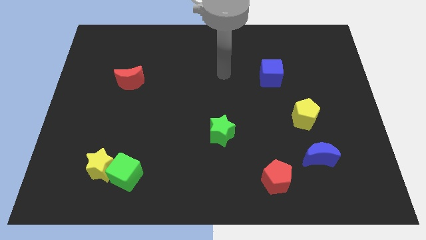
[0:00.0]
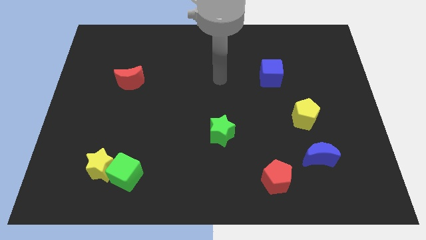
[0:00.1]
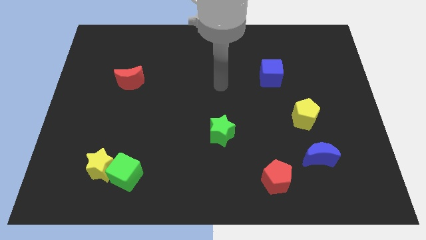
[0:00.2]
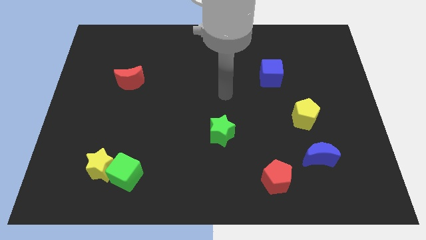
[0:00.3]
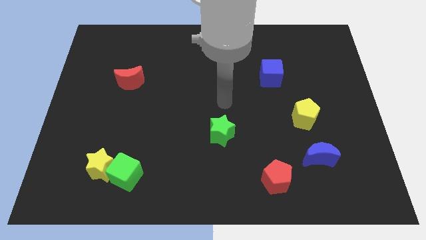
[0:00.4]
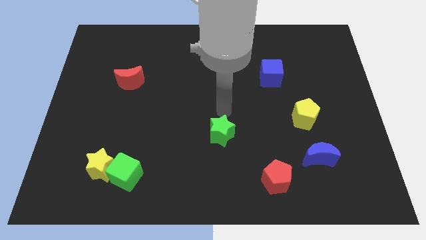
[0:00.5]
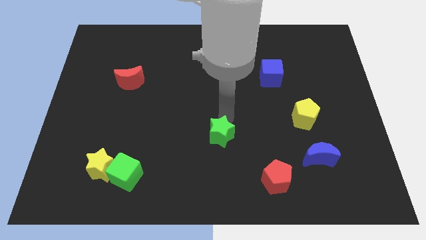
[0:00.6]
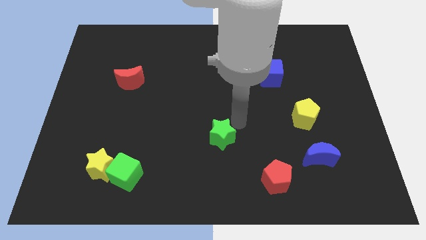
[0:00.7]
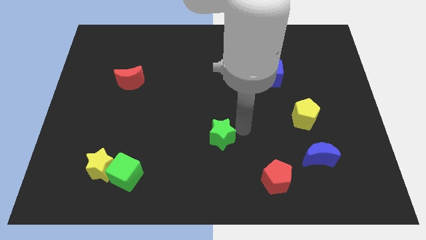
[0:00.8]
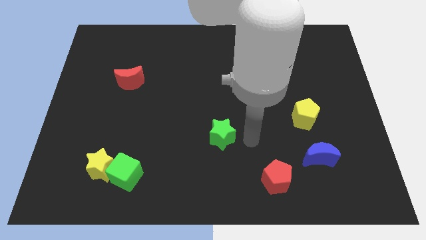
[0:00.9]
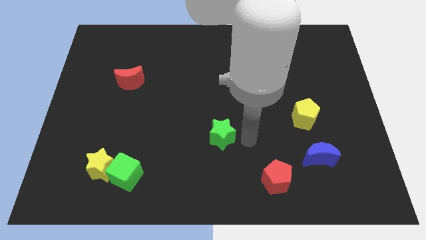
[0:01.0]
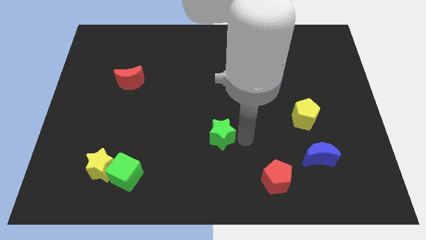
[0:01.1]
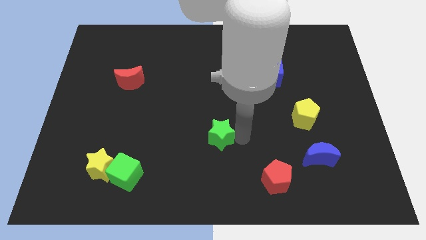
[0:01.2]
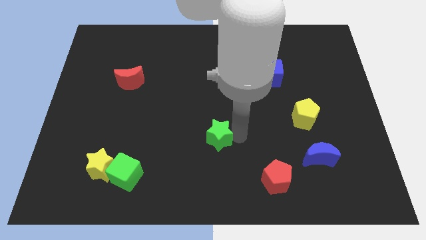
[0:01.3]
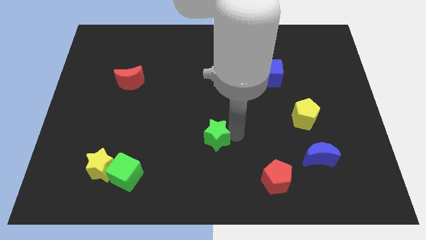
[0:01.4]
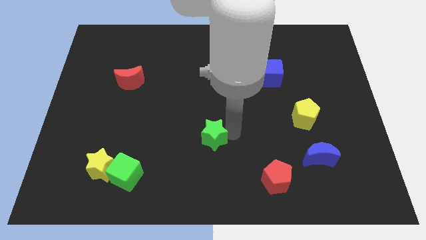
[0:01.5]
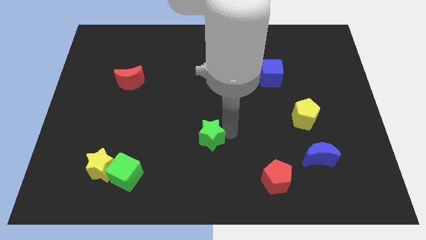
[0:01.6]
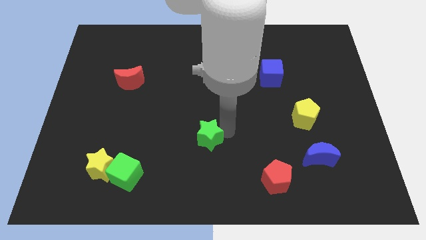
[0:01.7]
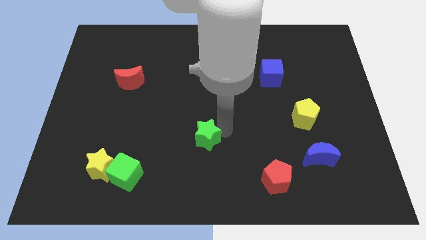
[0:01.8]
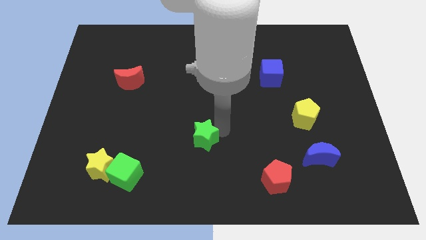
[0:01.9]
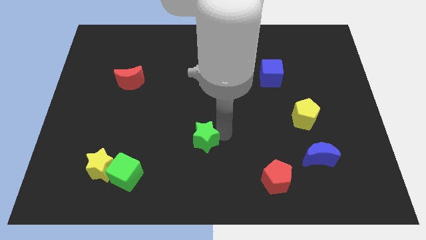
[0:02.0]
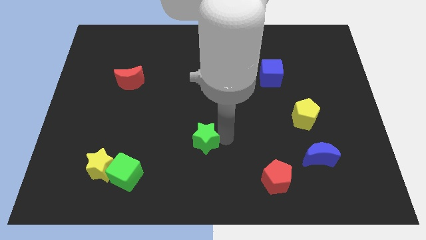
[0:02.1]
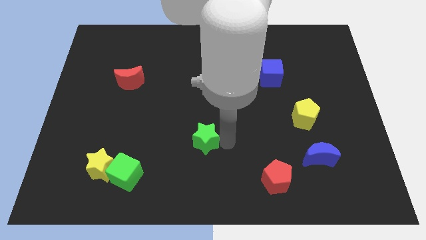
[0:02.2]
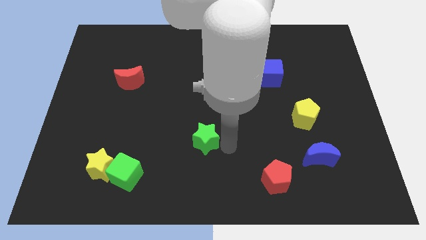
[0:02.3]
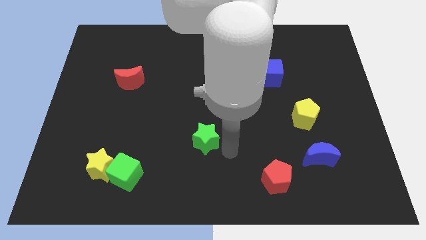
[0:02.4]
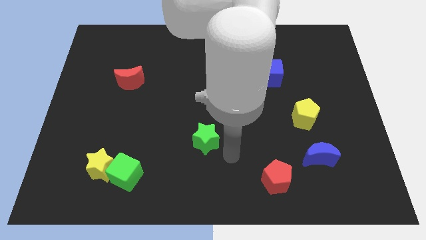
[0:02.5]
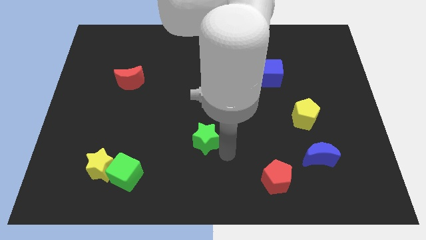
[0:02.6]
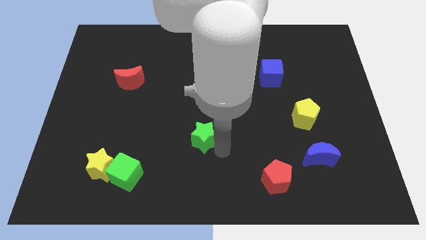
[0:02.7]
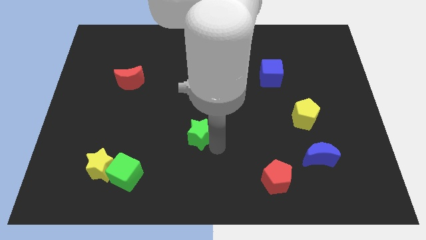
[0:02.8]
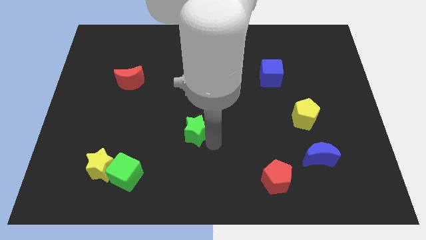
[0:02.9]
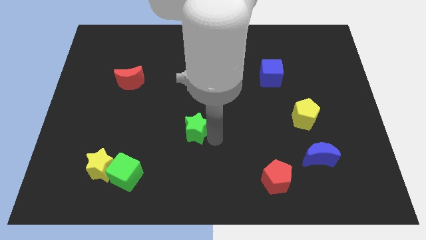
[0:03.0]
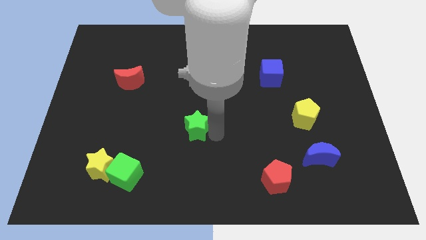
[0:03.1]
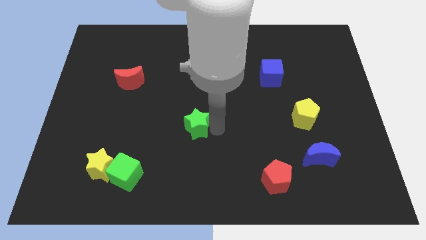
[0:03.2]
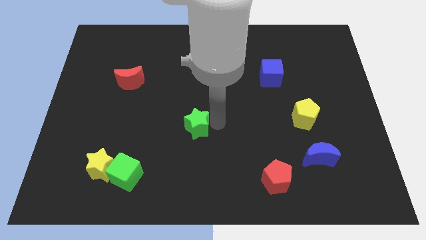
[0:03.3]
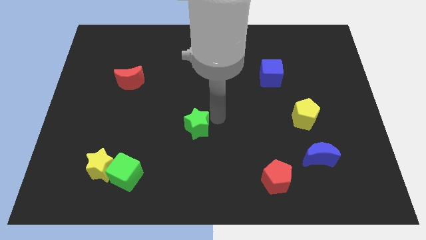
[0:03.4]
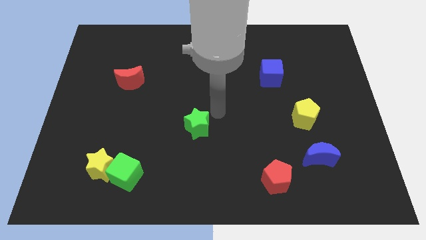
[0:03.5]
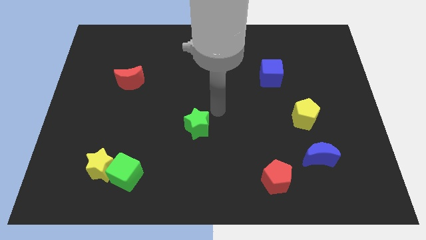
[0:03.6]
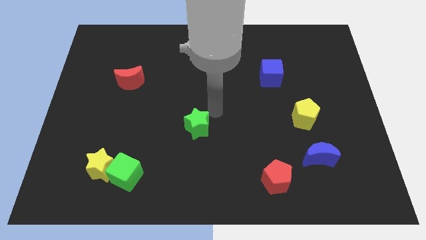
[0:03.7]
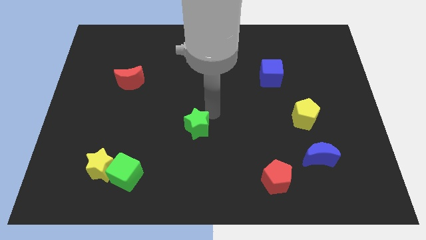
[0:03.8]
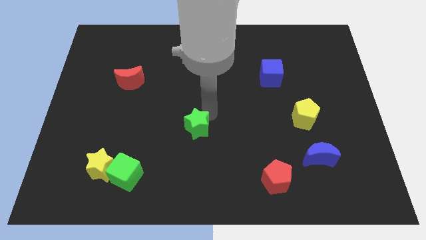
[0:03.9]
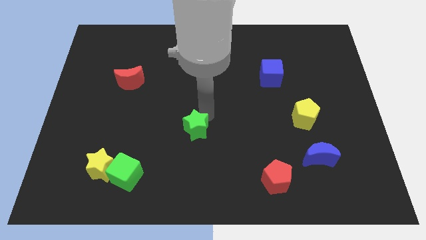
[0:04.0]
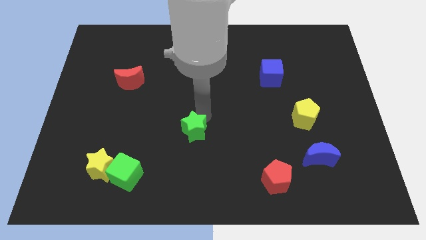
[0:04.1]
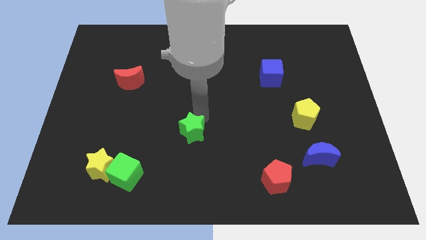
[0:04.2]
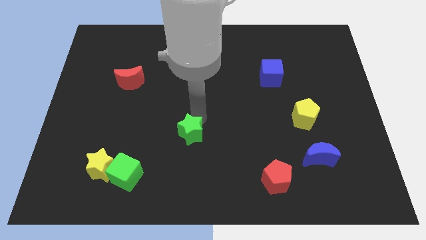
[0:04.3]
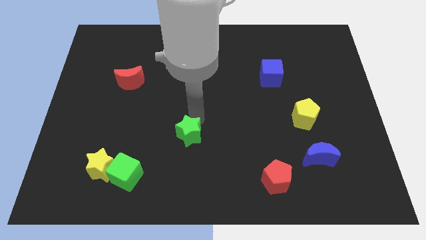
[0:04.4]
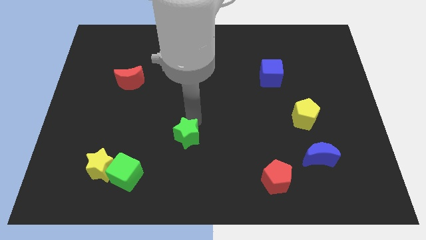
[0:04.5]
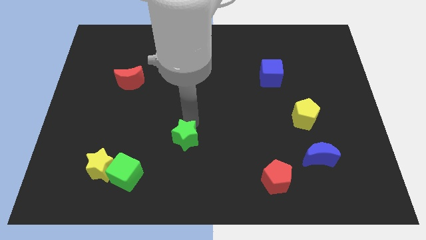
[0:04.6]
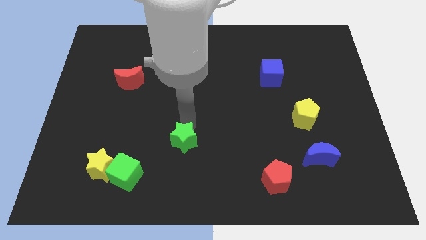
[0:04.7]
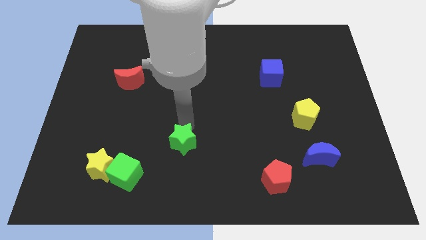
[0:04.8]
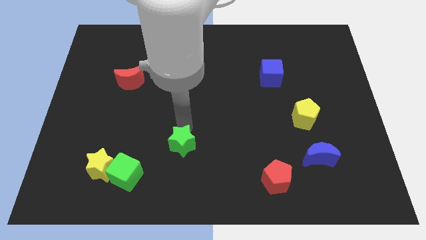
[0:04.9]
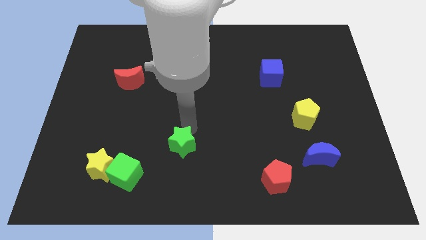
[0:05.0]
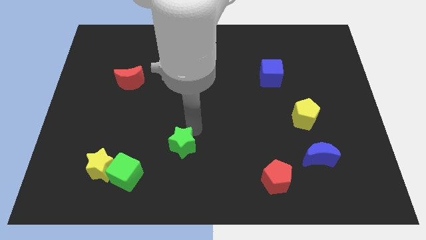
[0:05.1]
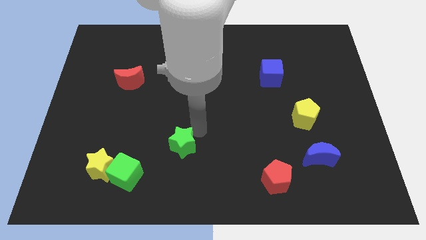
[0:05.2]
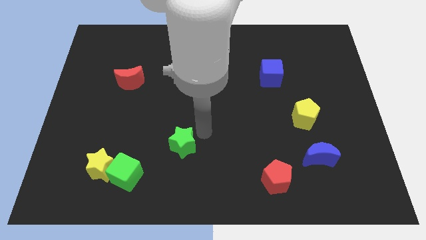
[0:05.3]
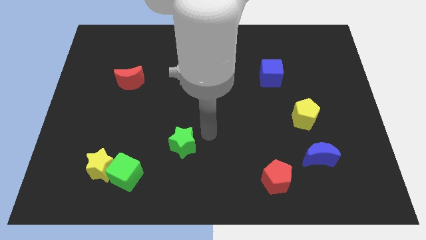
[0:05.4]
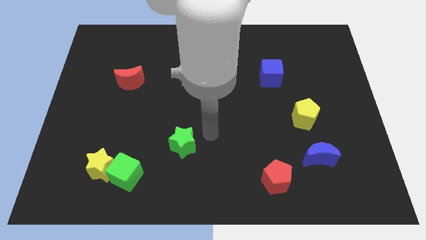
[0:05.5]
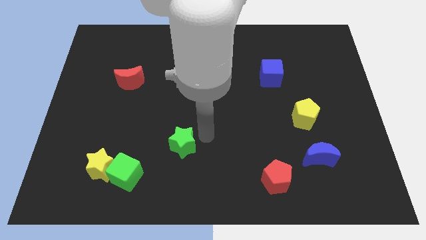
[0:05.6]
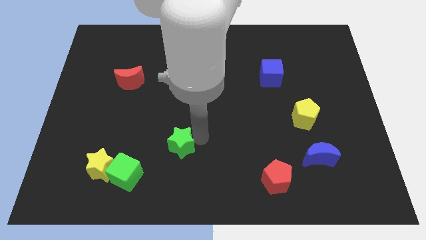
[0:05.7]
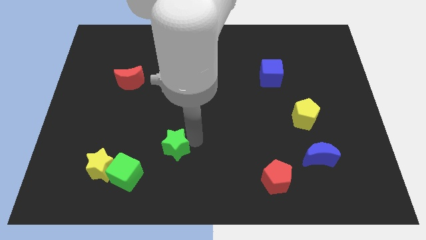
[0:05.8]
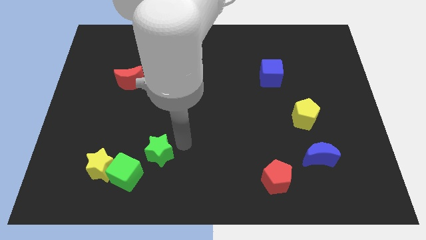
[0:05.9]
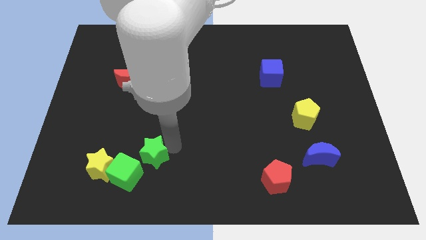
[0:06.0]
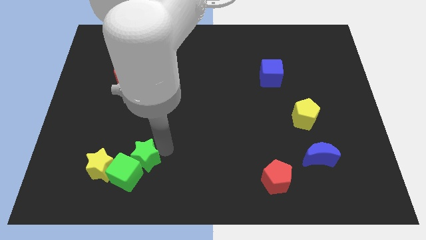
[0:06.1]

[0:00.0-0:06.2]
put the green star close to the green cube

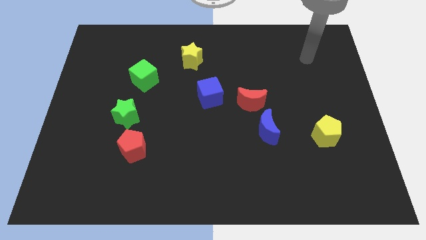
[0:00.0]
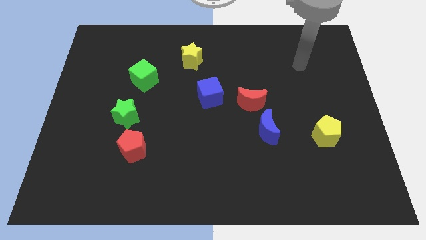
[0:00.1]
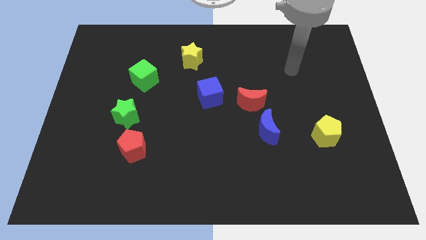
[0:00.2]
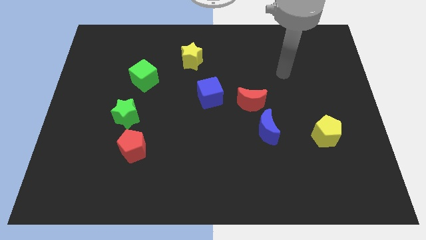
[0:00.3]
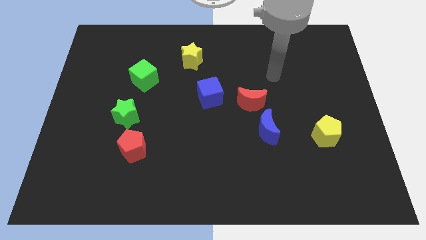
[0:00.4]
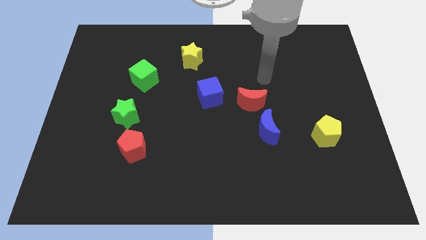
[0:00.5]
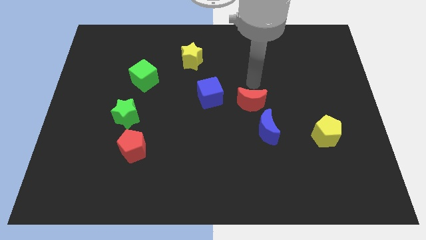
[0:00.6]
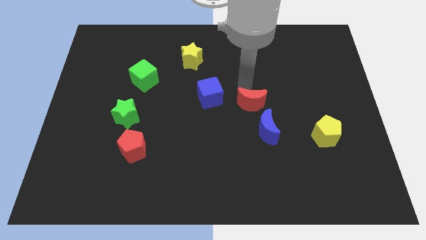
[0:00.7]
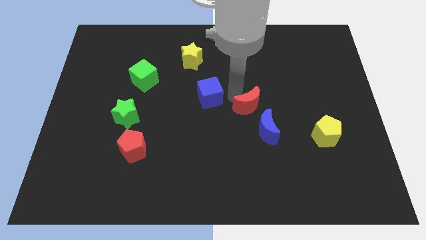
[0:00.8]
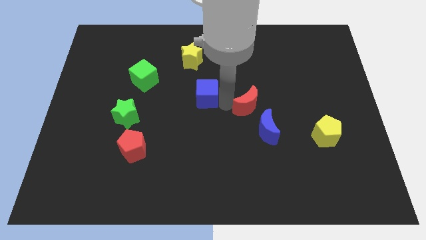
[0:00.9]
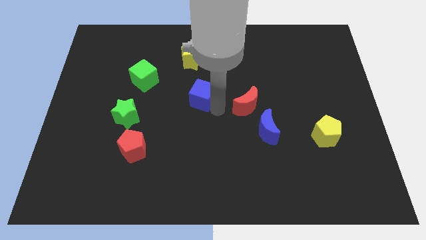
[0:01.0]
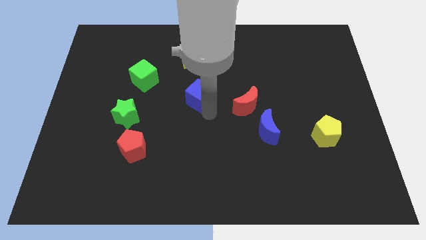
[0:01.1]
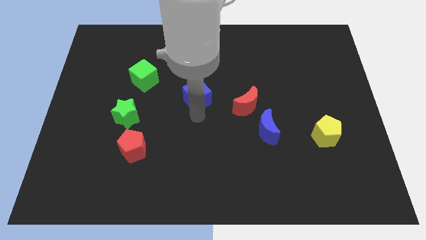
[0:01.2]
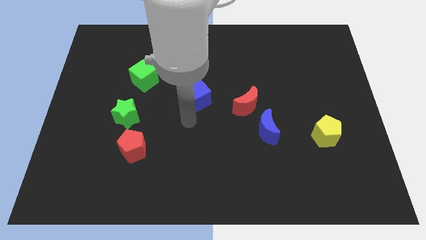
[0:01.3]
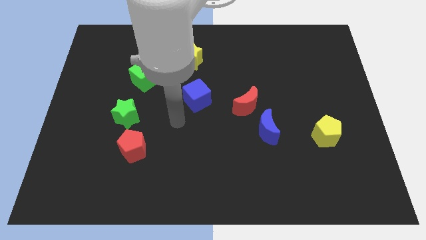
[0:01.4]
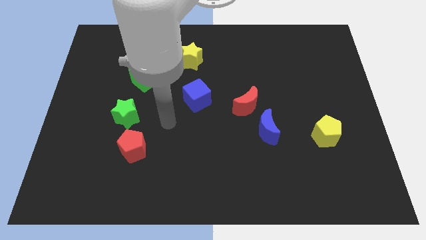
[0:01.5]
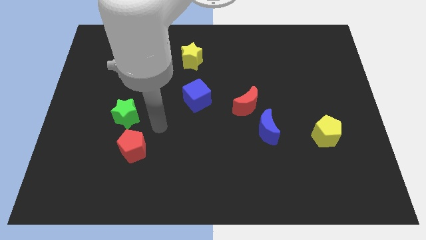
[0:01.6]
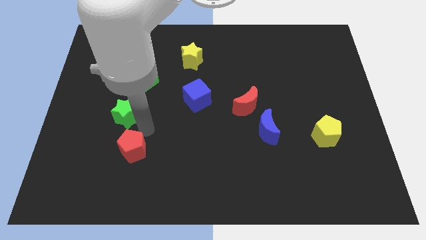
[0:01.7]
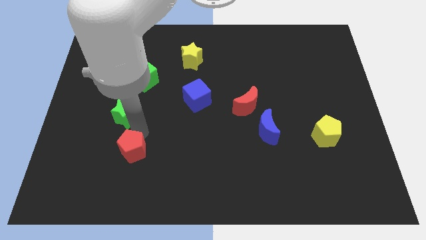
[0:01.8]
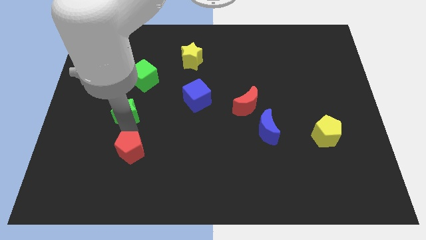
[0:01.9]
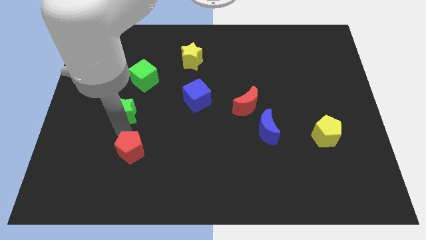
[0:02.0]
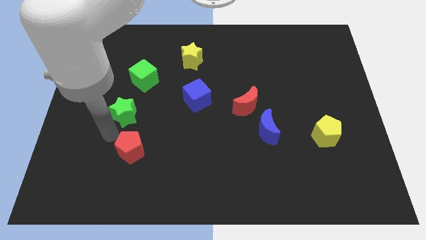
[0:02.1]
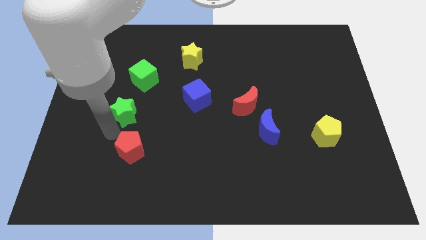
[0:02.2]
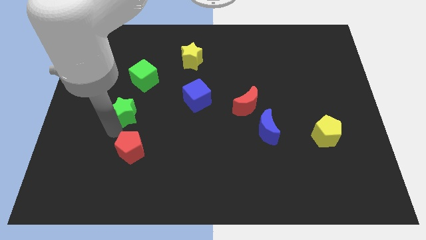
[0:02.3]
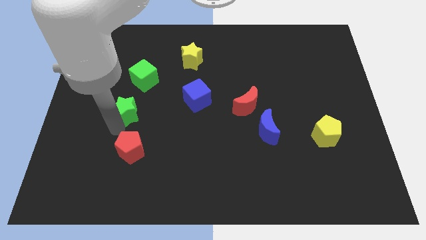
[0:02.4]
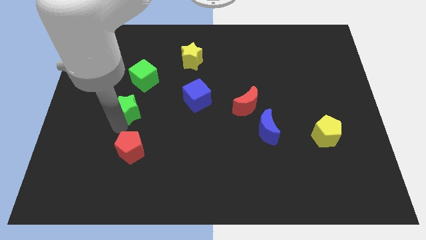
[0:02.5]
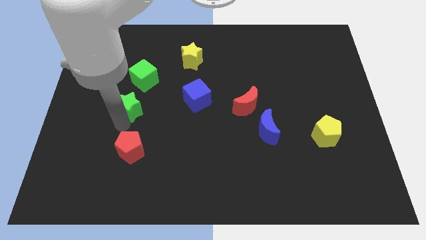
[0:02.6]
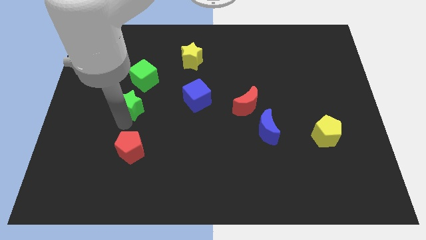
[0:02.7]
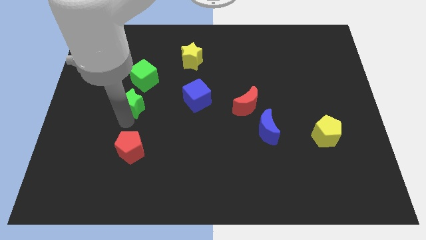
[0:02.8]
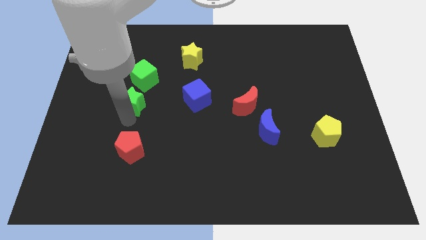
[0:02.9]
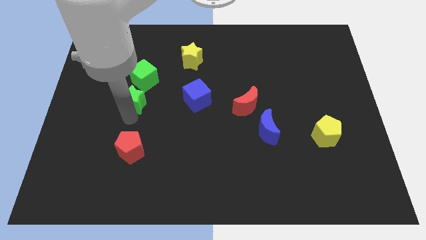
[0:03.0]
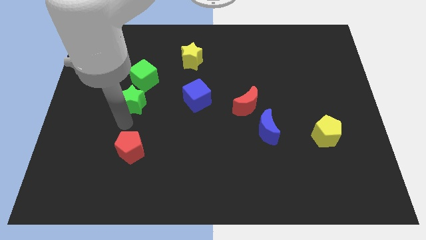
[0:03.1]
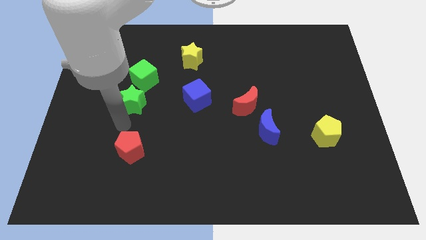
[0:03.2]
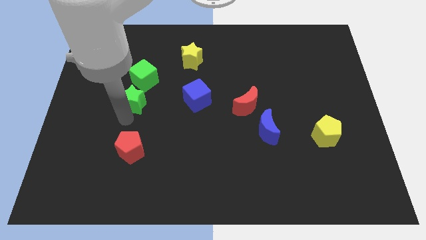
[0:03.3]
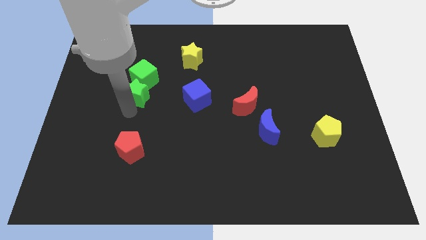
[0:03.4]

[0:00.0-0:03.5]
slide the green star next to the green cube
